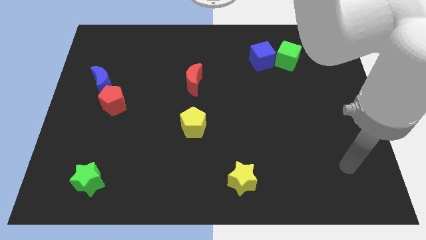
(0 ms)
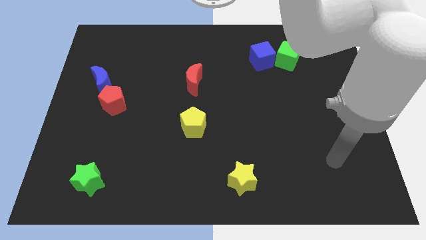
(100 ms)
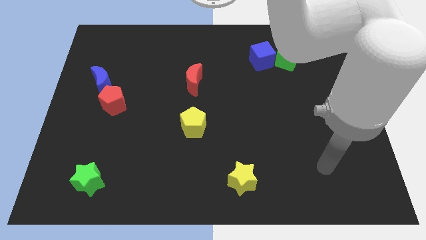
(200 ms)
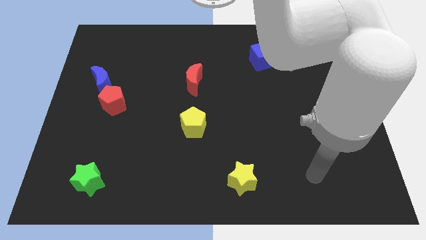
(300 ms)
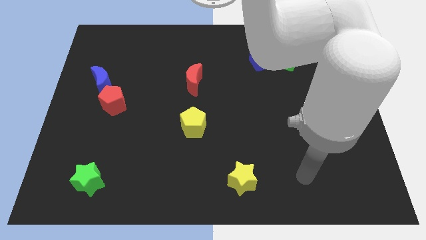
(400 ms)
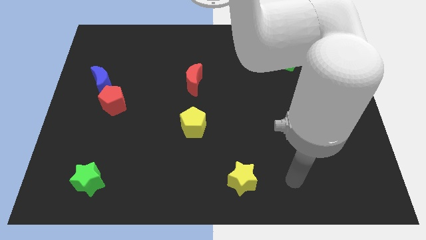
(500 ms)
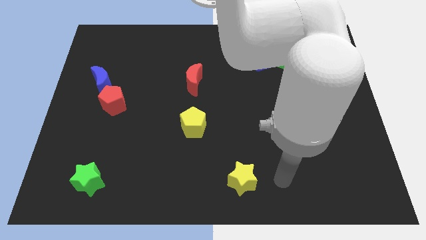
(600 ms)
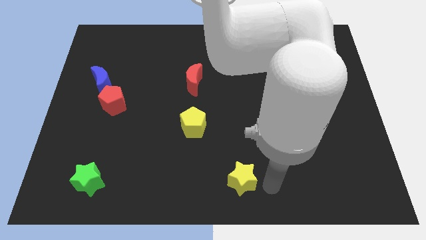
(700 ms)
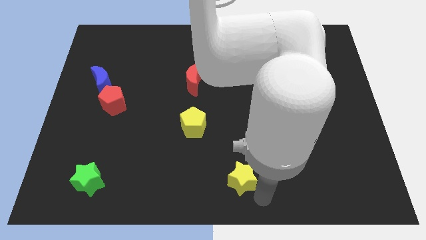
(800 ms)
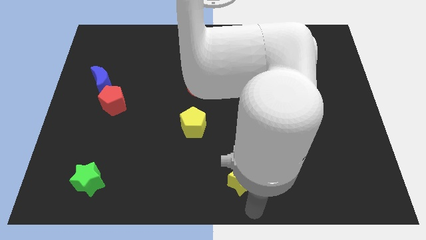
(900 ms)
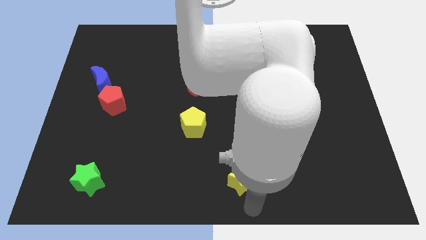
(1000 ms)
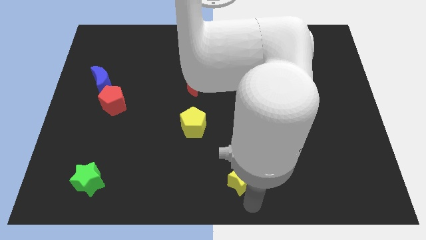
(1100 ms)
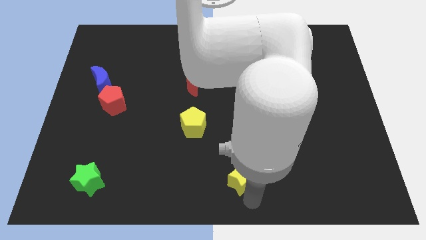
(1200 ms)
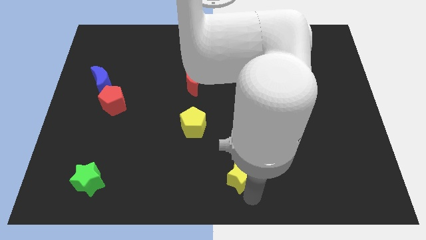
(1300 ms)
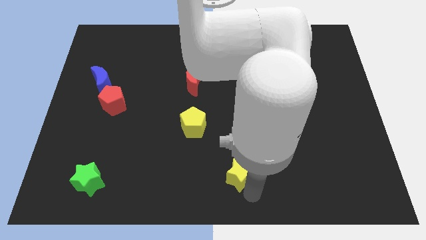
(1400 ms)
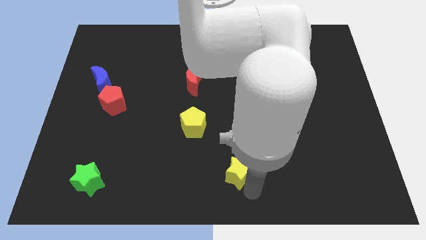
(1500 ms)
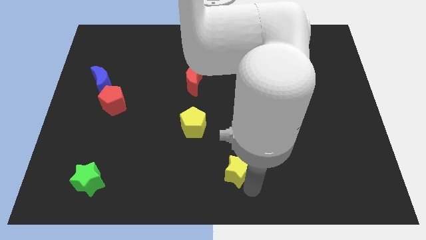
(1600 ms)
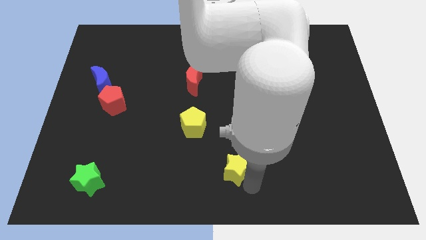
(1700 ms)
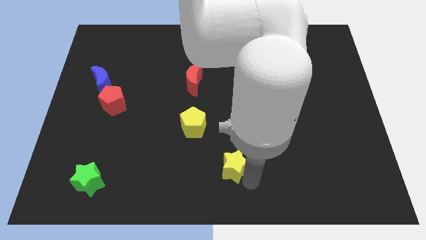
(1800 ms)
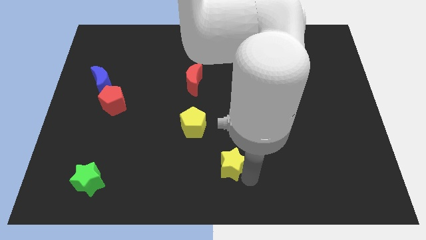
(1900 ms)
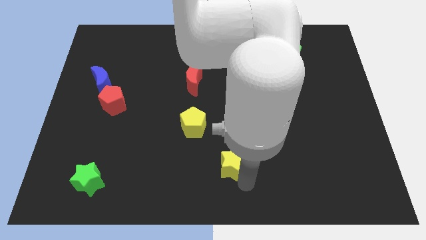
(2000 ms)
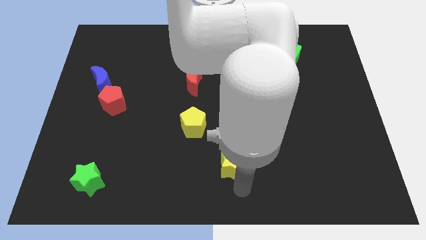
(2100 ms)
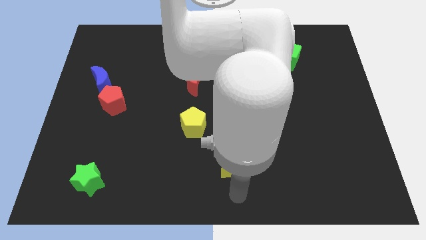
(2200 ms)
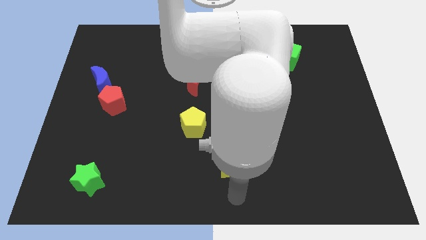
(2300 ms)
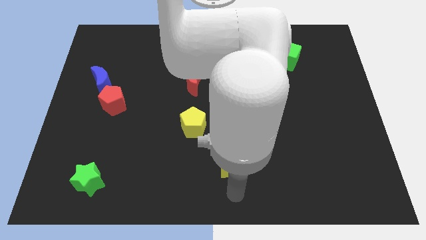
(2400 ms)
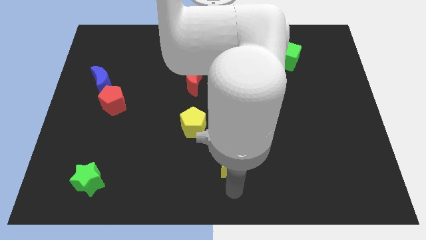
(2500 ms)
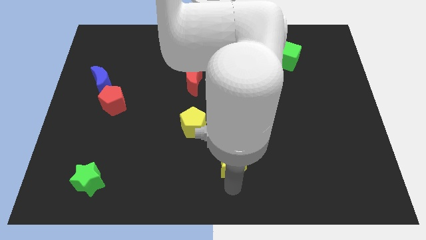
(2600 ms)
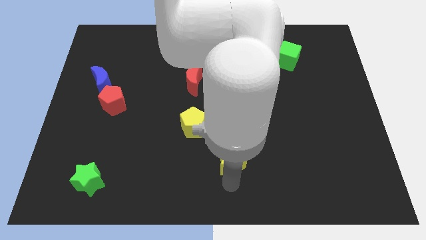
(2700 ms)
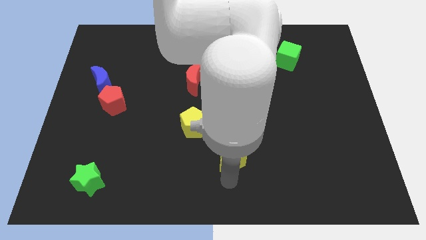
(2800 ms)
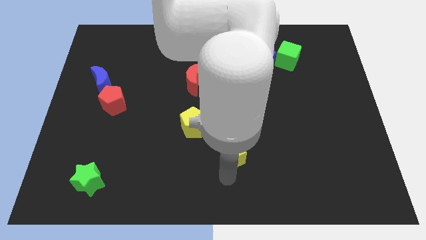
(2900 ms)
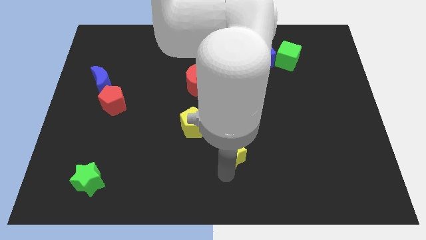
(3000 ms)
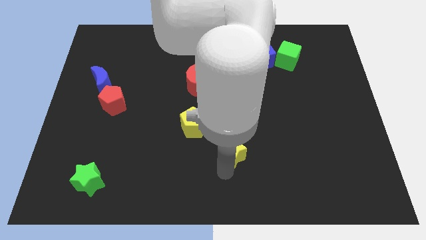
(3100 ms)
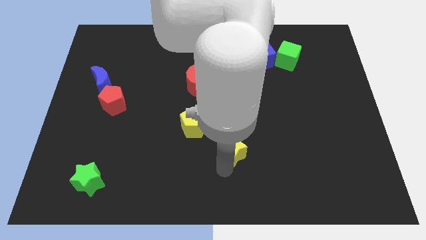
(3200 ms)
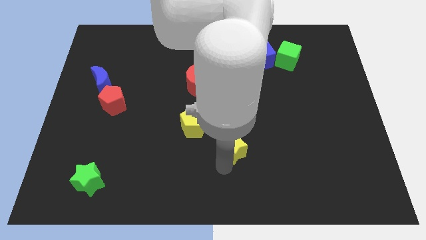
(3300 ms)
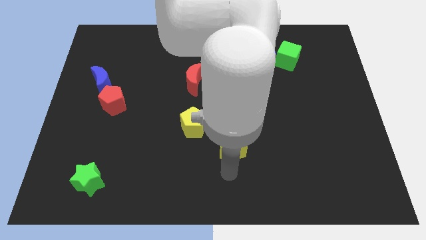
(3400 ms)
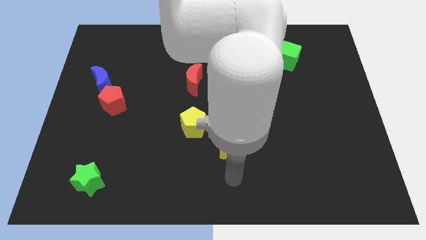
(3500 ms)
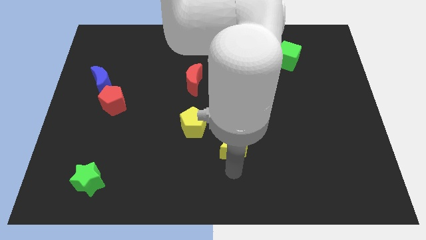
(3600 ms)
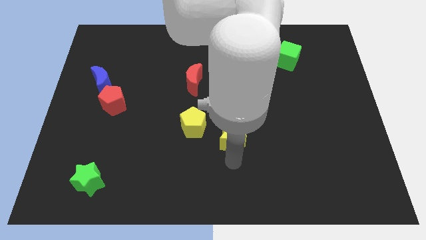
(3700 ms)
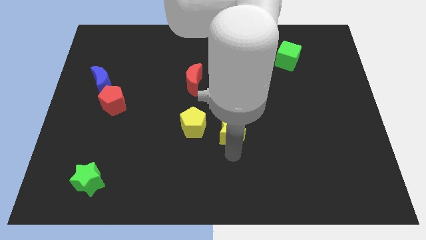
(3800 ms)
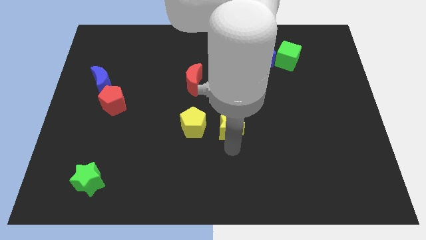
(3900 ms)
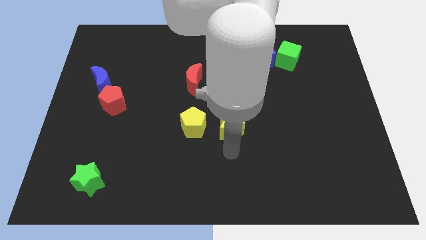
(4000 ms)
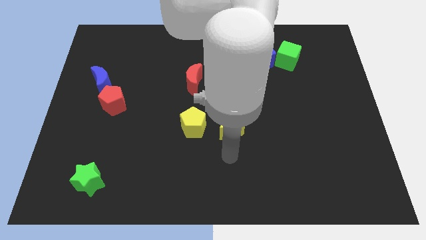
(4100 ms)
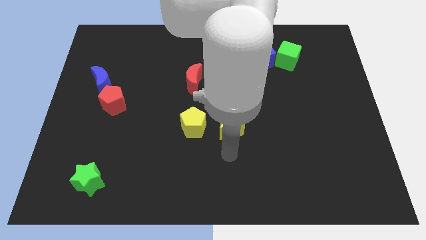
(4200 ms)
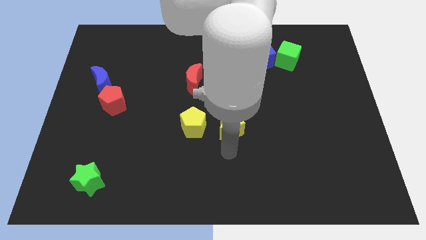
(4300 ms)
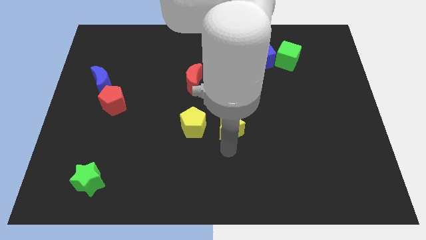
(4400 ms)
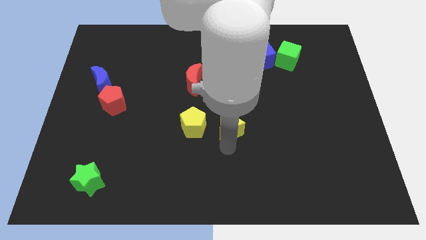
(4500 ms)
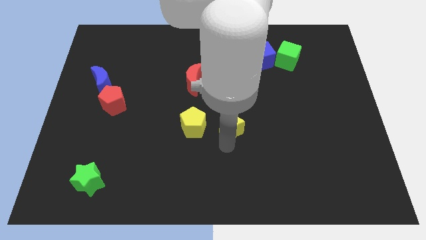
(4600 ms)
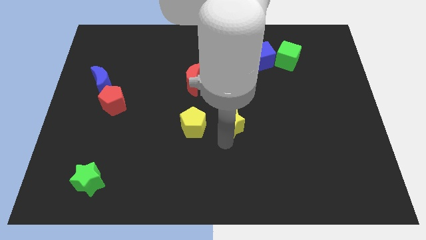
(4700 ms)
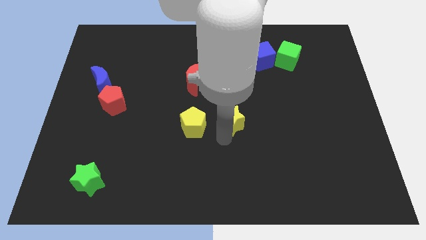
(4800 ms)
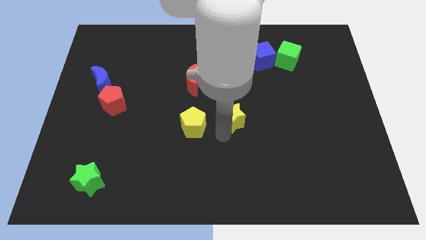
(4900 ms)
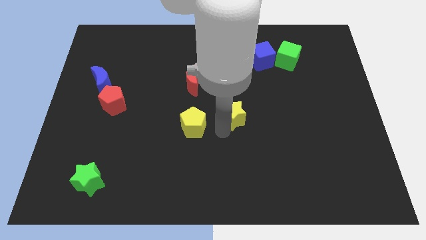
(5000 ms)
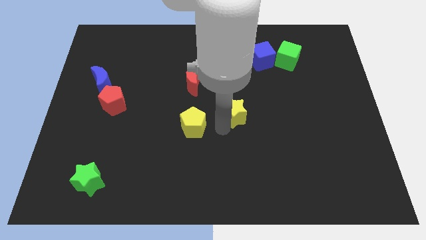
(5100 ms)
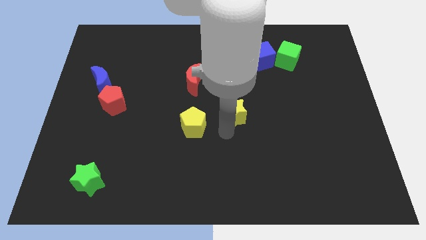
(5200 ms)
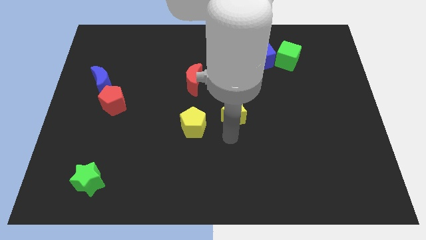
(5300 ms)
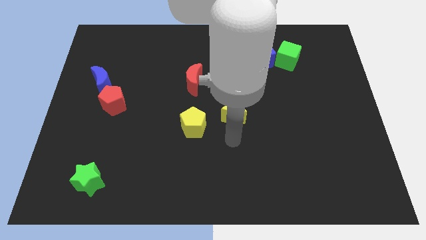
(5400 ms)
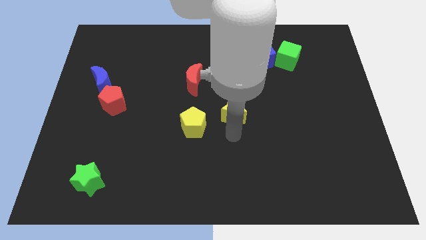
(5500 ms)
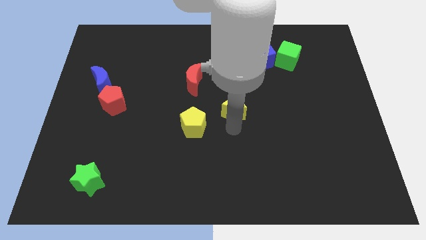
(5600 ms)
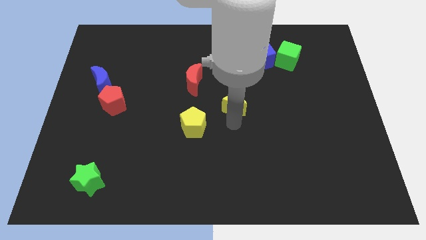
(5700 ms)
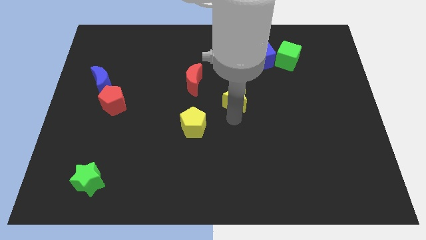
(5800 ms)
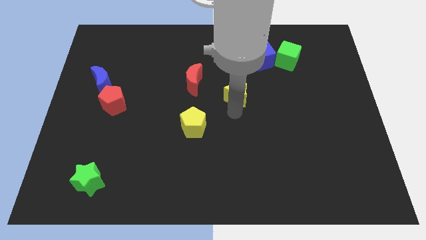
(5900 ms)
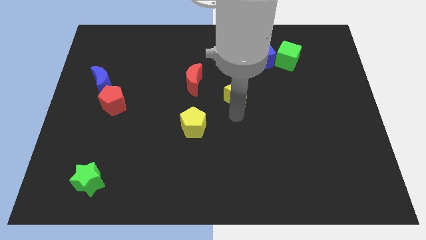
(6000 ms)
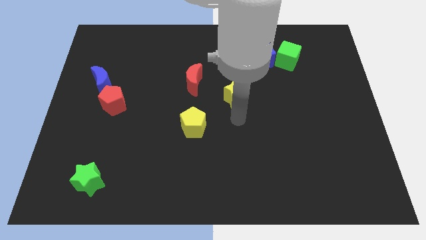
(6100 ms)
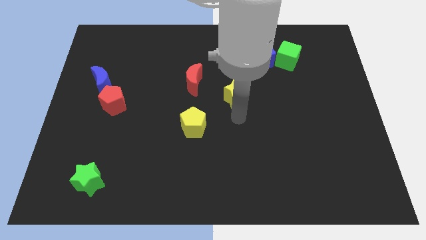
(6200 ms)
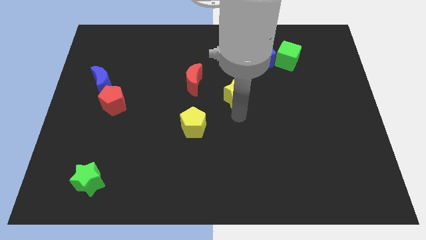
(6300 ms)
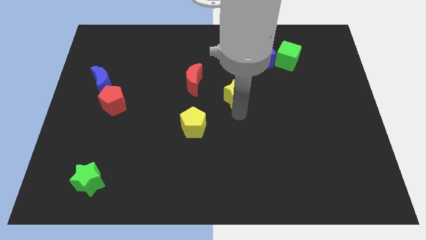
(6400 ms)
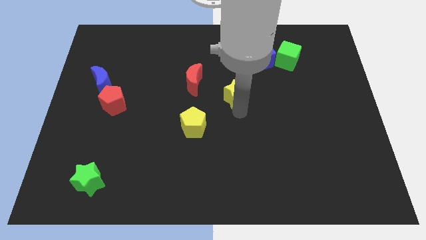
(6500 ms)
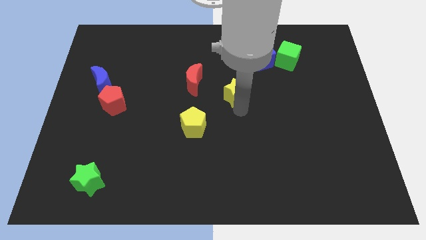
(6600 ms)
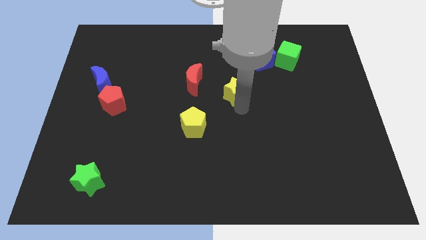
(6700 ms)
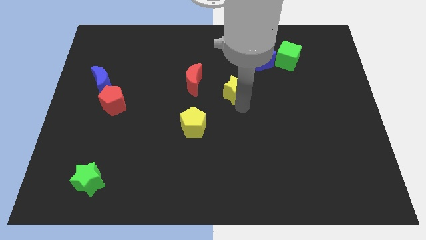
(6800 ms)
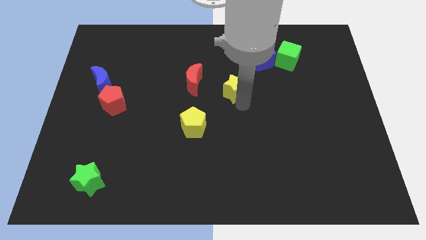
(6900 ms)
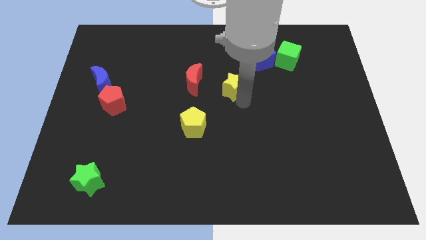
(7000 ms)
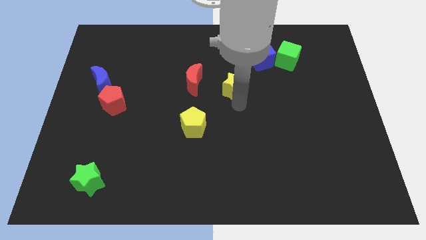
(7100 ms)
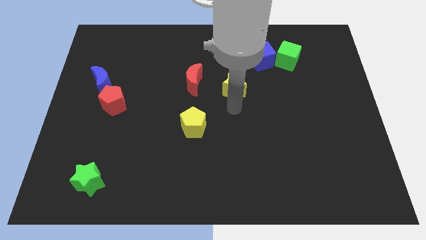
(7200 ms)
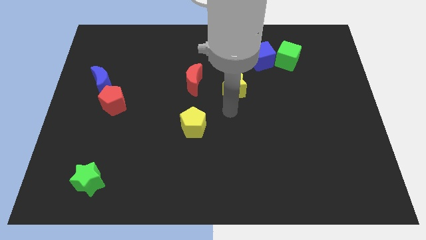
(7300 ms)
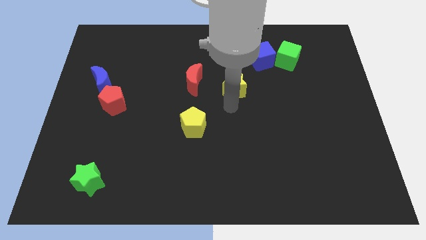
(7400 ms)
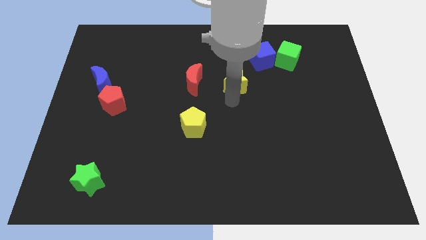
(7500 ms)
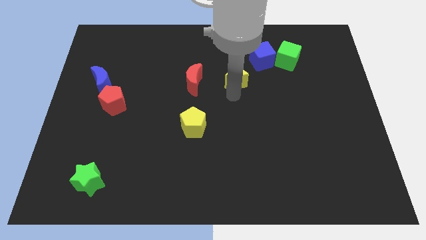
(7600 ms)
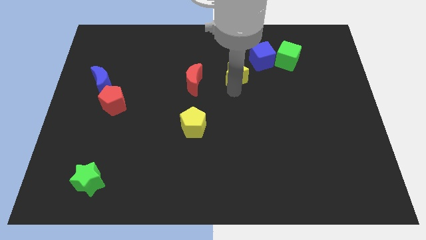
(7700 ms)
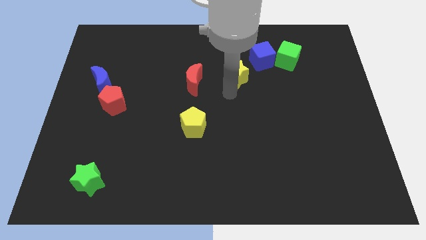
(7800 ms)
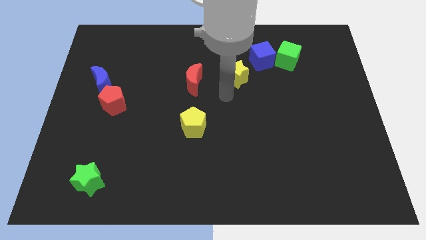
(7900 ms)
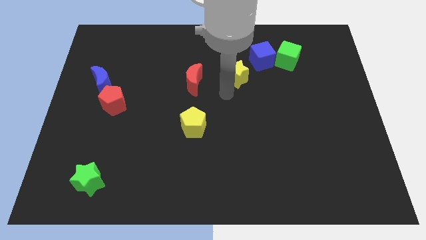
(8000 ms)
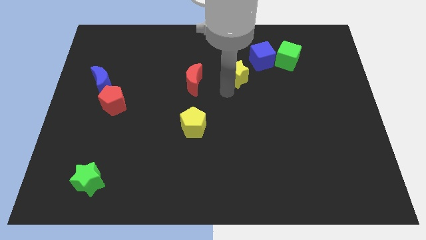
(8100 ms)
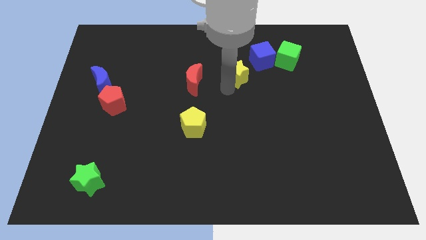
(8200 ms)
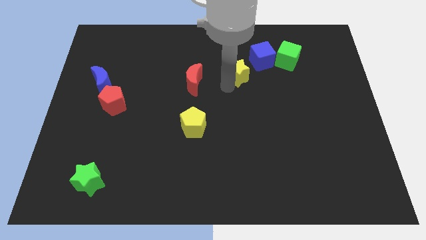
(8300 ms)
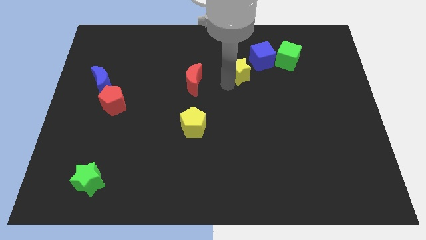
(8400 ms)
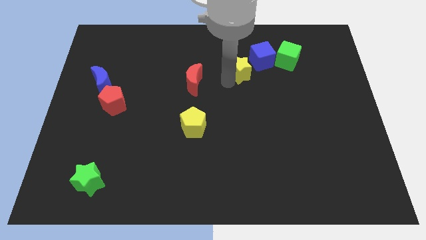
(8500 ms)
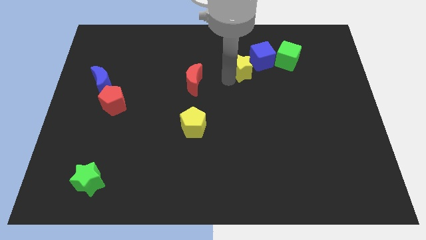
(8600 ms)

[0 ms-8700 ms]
move the yellow star to the left of the green cube
